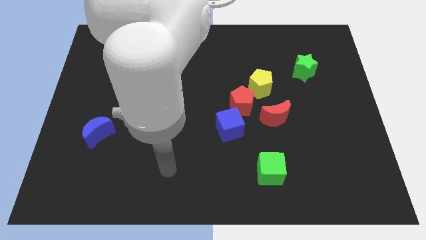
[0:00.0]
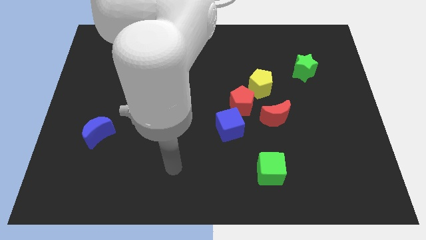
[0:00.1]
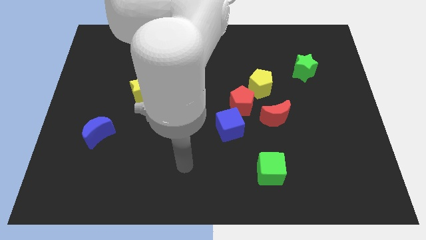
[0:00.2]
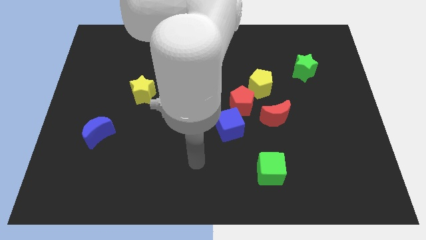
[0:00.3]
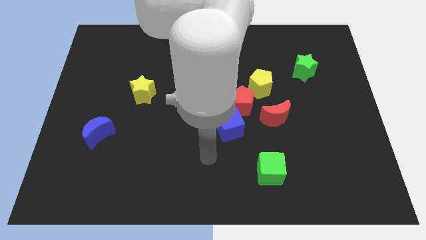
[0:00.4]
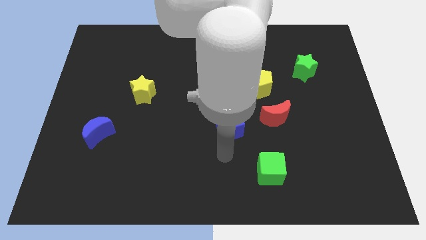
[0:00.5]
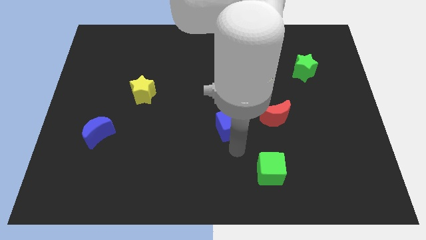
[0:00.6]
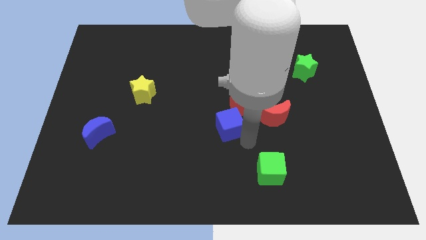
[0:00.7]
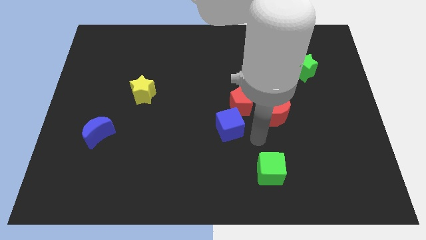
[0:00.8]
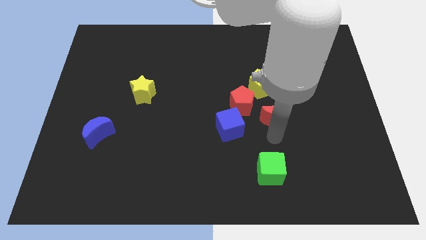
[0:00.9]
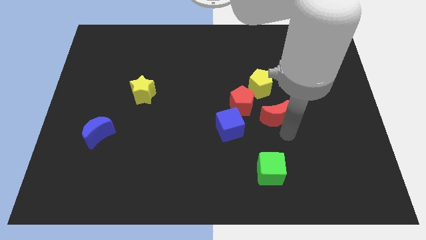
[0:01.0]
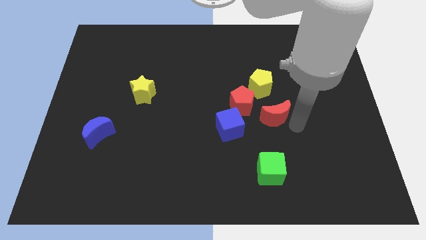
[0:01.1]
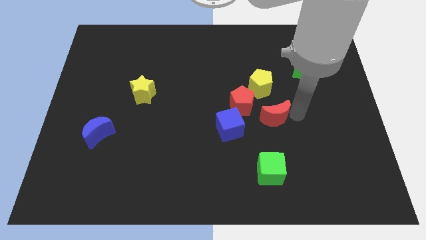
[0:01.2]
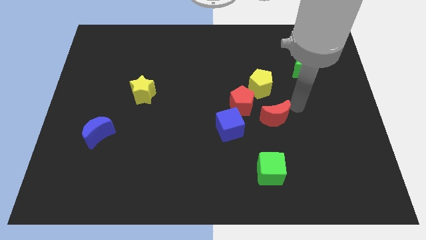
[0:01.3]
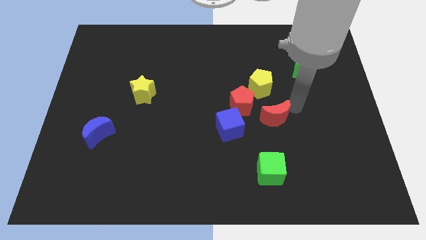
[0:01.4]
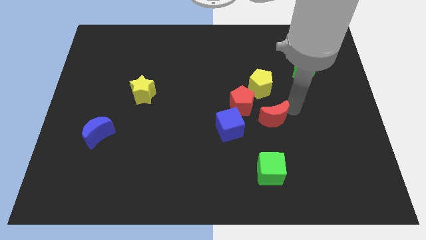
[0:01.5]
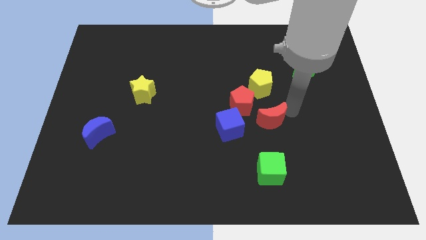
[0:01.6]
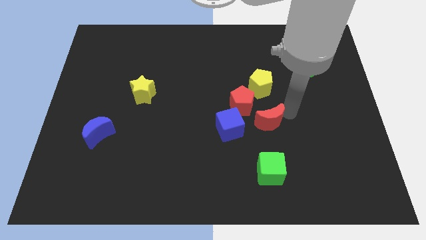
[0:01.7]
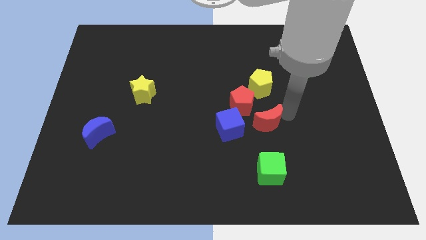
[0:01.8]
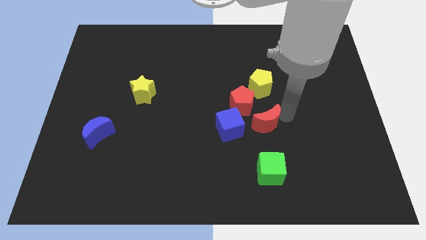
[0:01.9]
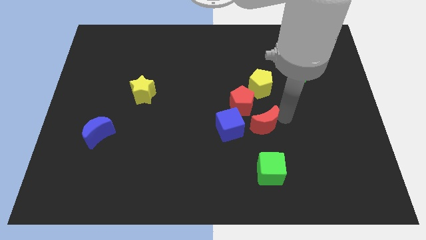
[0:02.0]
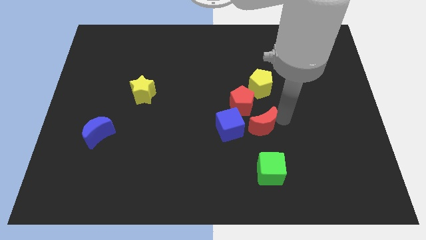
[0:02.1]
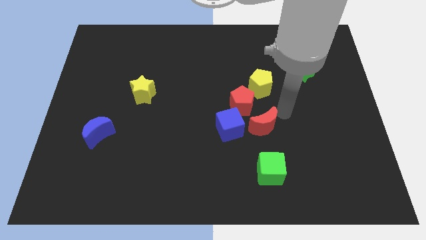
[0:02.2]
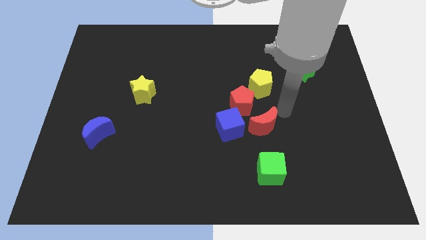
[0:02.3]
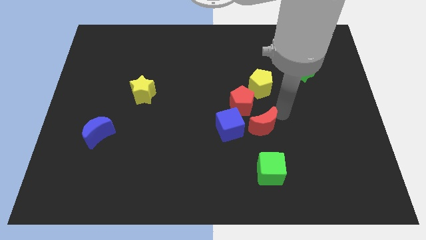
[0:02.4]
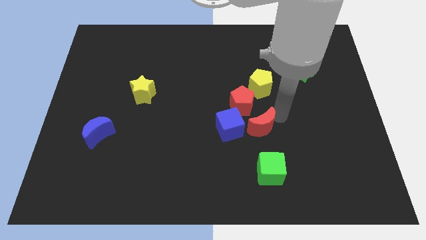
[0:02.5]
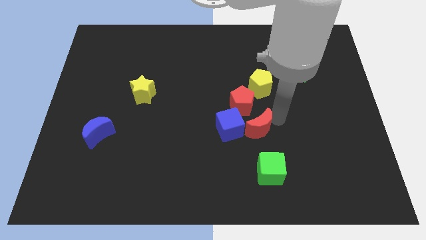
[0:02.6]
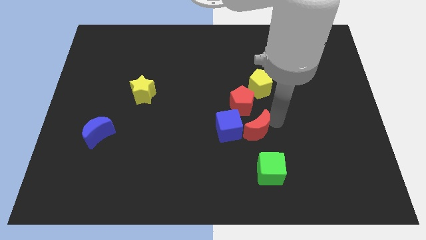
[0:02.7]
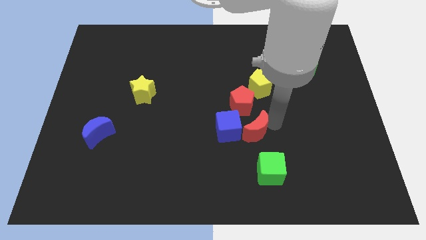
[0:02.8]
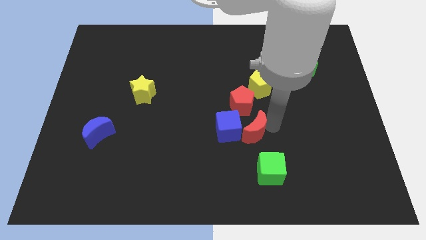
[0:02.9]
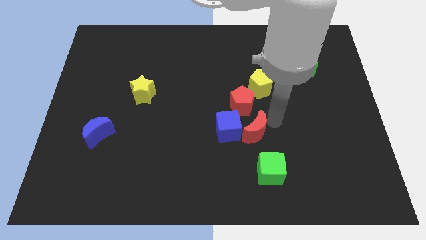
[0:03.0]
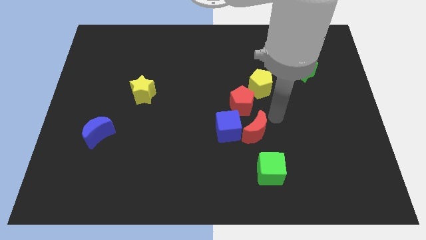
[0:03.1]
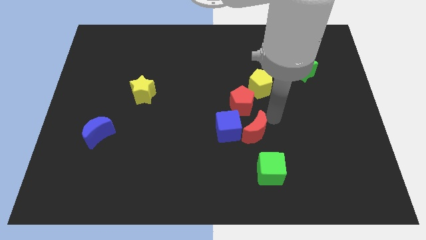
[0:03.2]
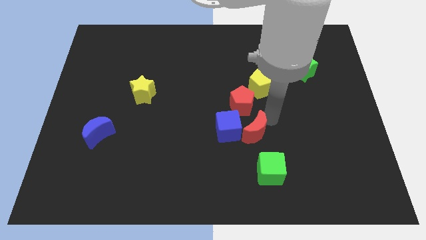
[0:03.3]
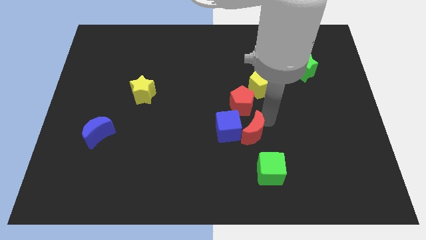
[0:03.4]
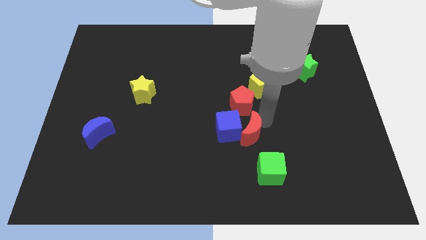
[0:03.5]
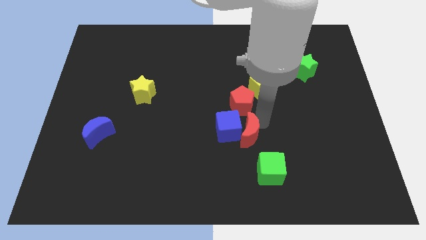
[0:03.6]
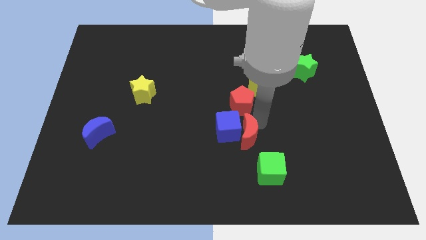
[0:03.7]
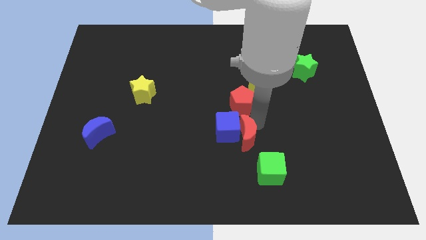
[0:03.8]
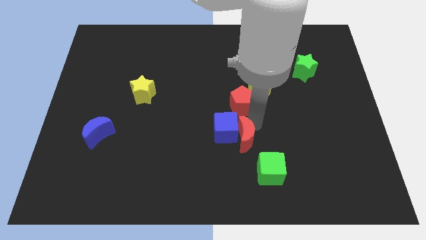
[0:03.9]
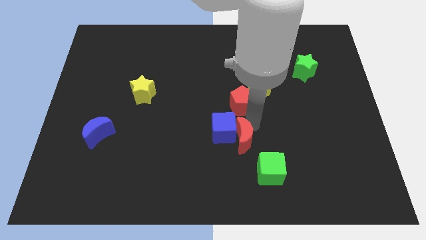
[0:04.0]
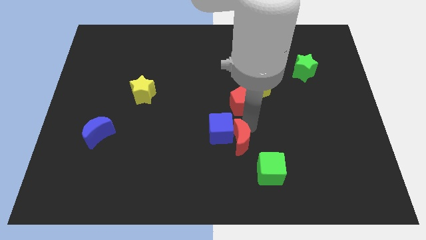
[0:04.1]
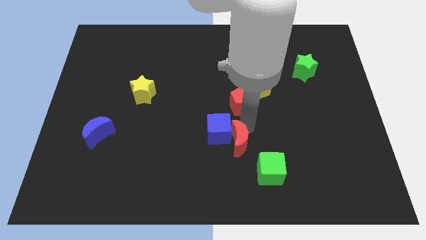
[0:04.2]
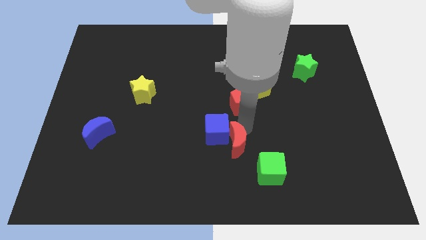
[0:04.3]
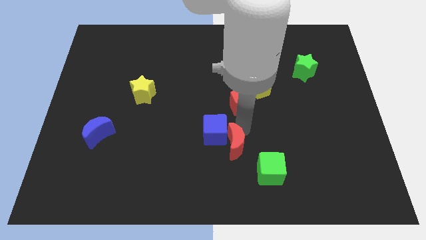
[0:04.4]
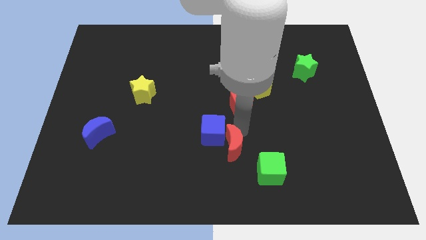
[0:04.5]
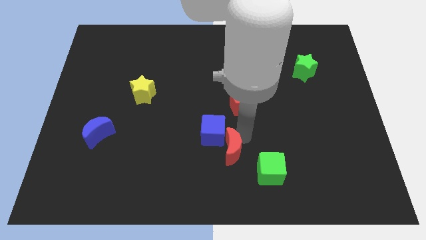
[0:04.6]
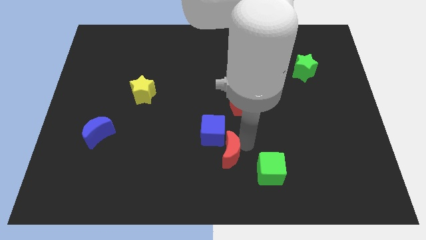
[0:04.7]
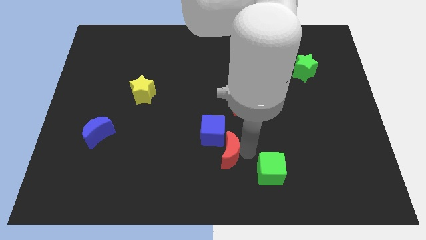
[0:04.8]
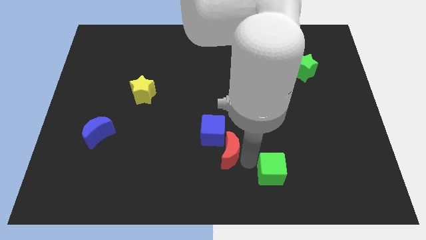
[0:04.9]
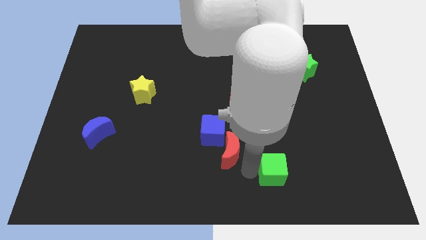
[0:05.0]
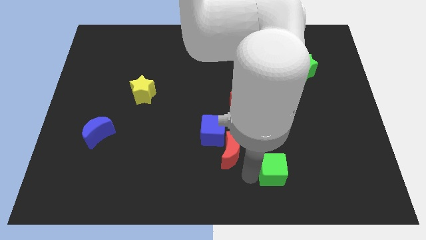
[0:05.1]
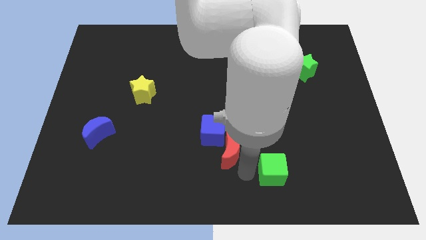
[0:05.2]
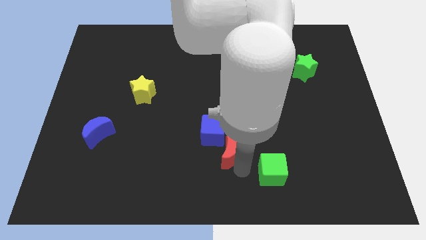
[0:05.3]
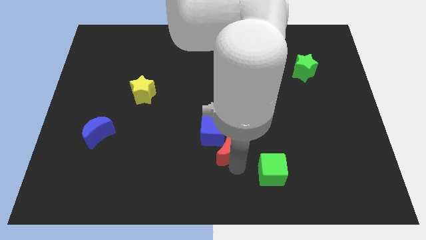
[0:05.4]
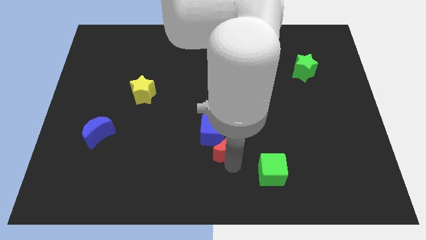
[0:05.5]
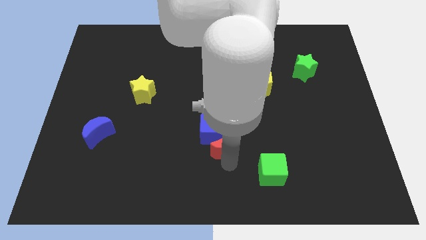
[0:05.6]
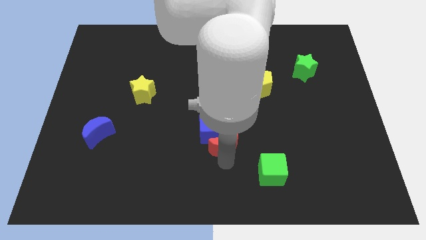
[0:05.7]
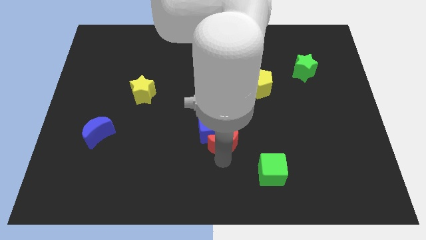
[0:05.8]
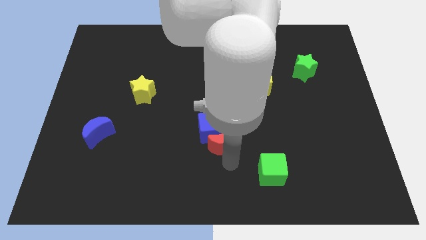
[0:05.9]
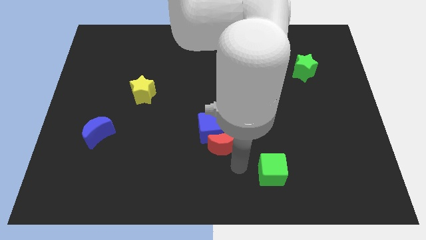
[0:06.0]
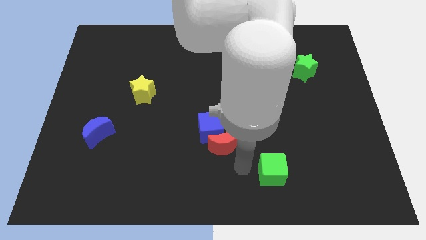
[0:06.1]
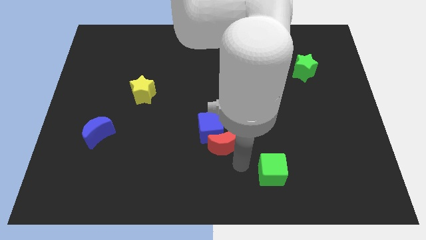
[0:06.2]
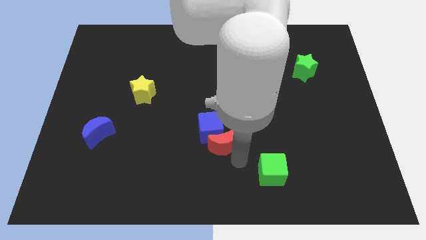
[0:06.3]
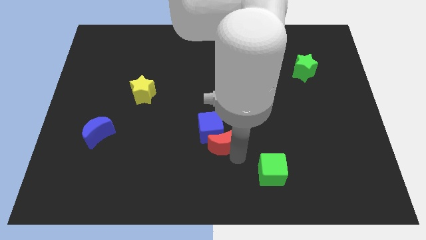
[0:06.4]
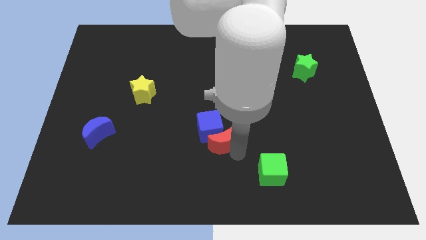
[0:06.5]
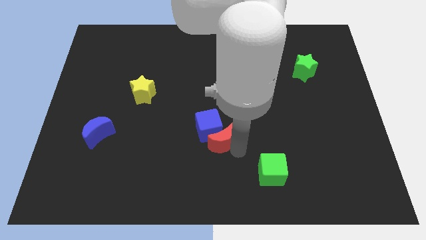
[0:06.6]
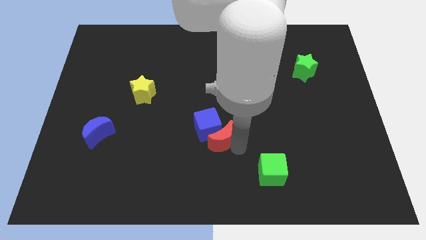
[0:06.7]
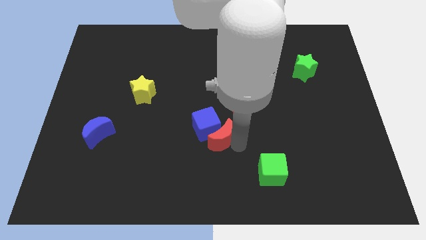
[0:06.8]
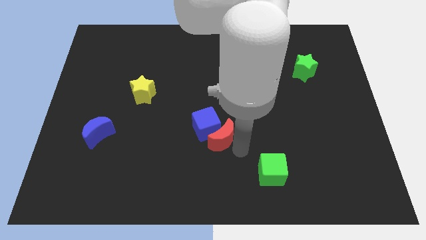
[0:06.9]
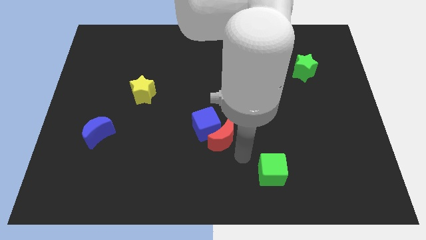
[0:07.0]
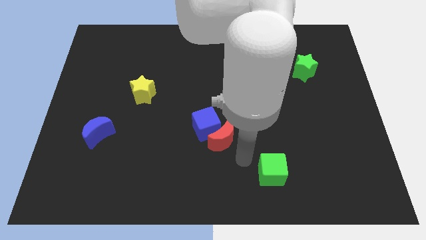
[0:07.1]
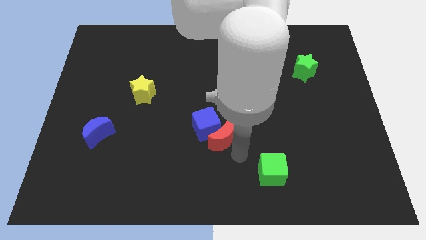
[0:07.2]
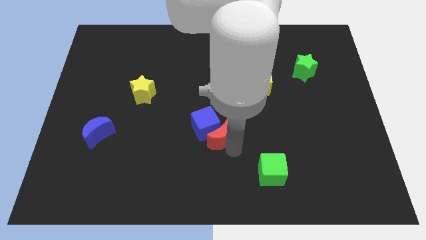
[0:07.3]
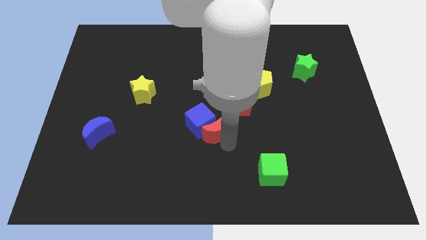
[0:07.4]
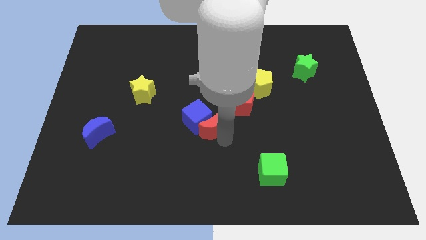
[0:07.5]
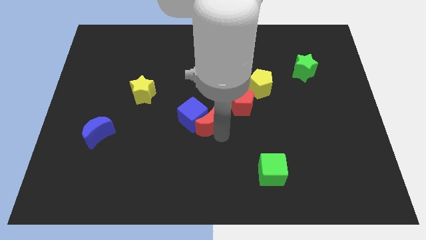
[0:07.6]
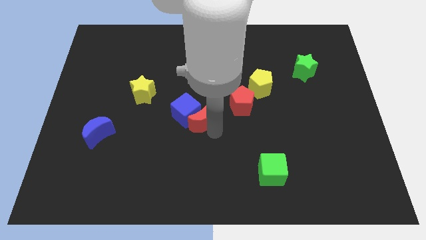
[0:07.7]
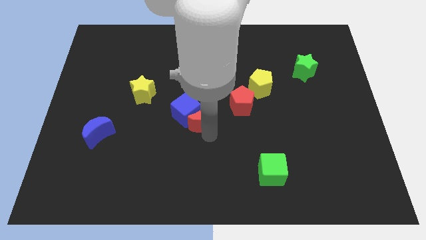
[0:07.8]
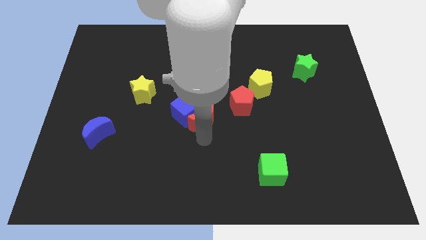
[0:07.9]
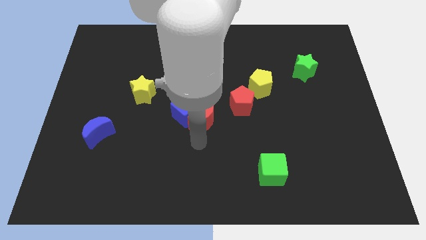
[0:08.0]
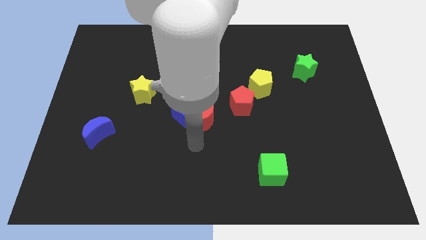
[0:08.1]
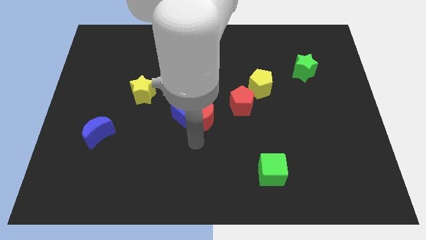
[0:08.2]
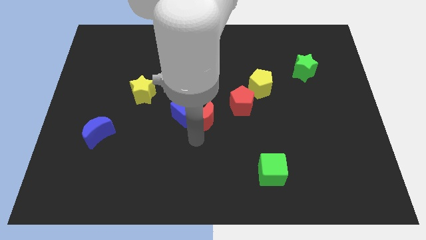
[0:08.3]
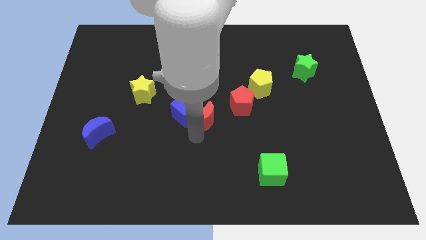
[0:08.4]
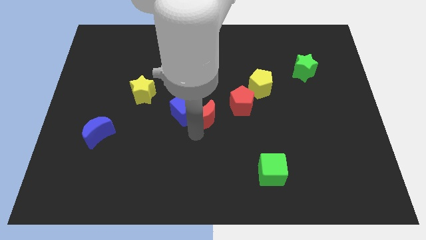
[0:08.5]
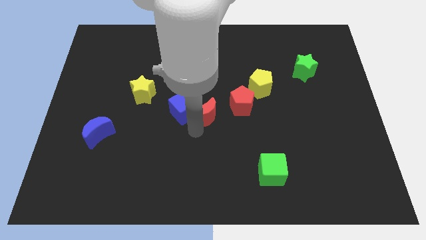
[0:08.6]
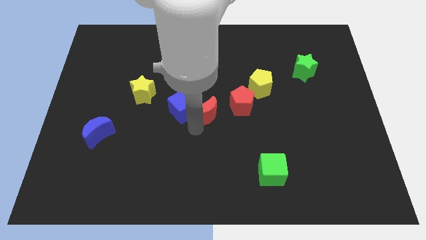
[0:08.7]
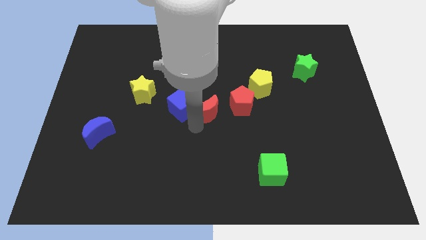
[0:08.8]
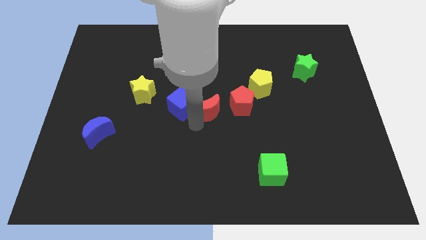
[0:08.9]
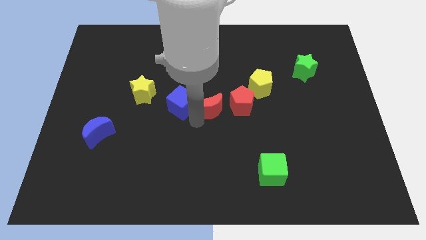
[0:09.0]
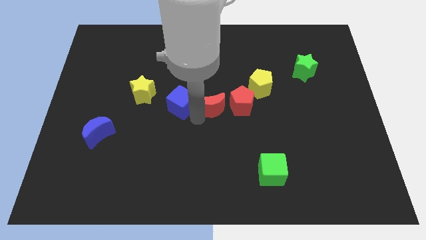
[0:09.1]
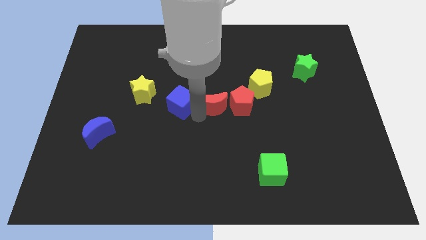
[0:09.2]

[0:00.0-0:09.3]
move the red moon to the top left side of the red pentagon
